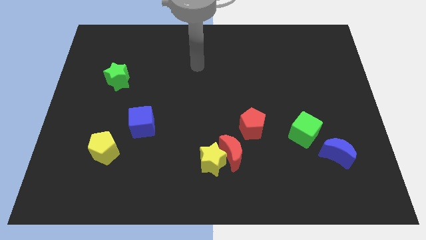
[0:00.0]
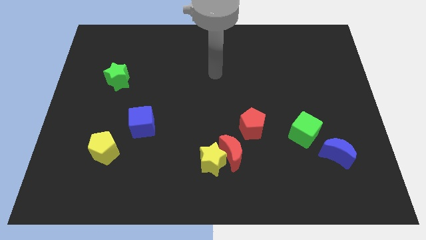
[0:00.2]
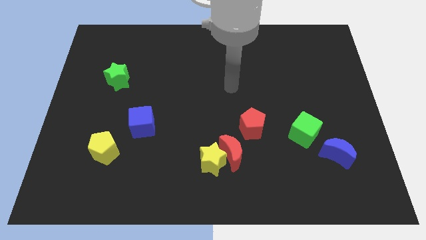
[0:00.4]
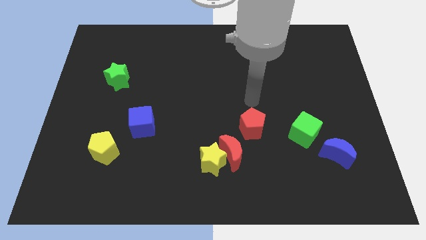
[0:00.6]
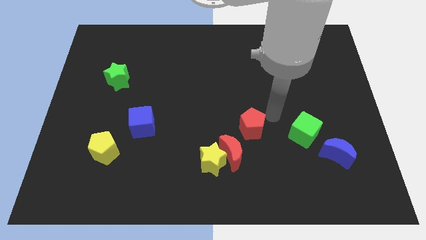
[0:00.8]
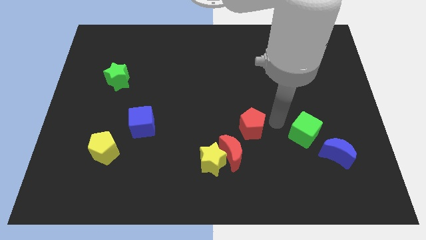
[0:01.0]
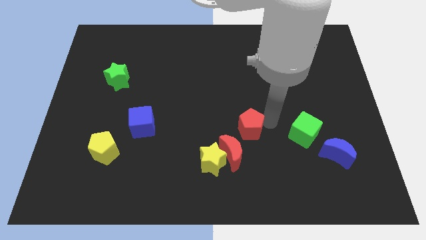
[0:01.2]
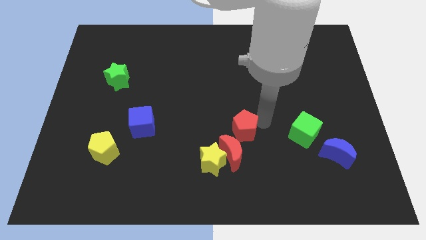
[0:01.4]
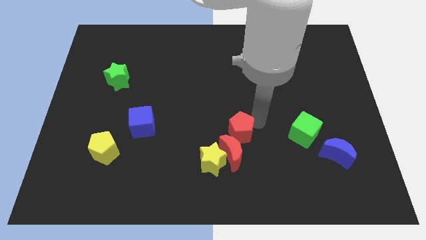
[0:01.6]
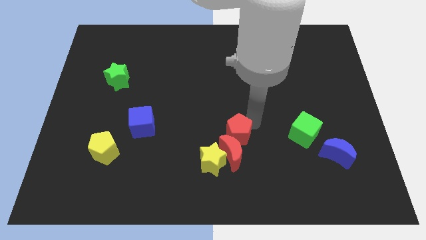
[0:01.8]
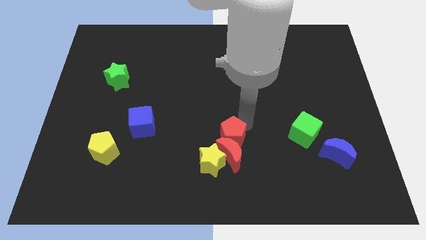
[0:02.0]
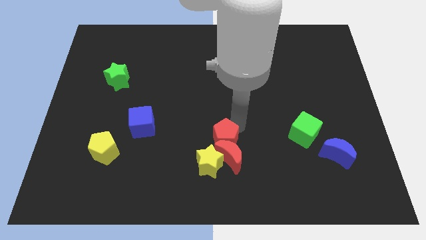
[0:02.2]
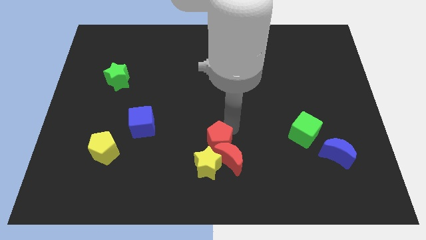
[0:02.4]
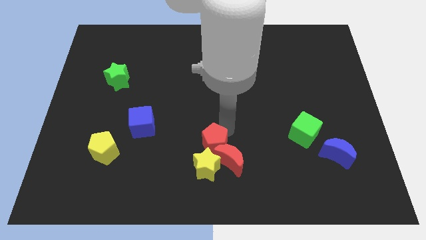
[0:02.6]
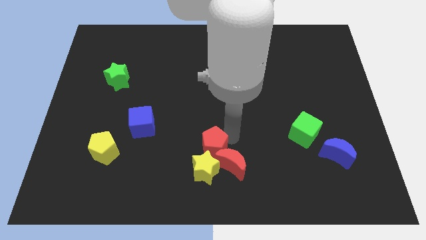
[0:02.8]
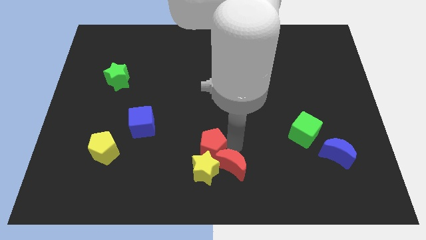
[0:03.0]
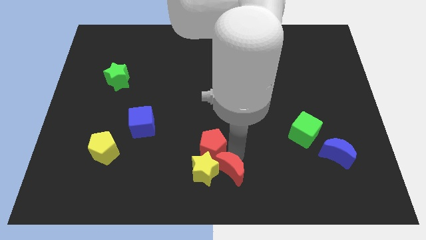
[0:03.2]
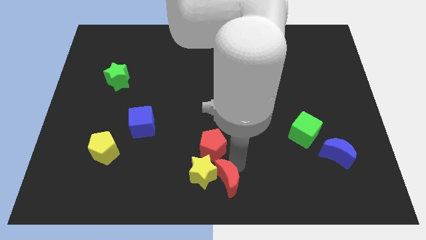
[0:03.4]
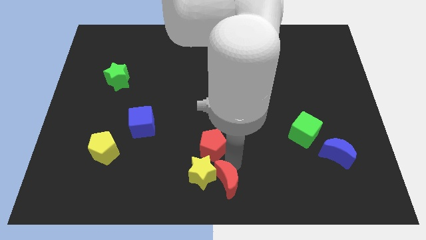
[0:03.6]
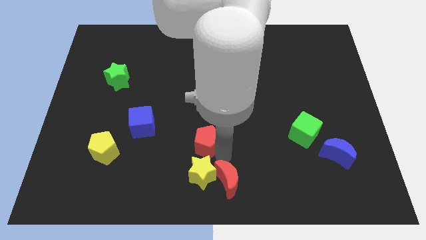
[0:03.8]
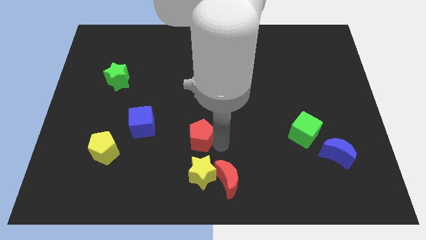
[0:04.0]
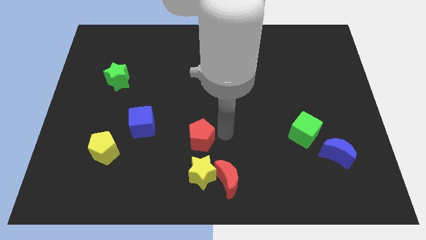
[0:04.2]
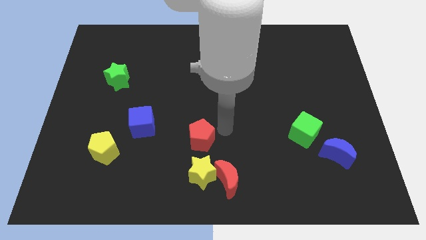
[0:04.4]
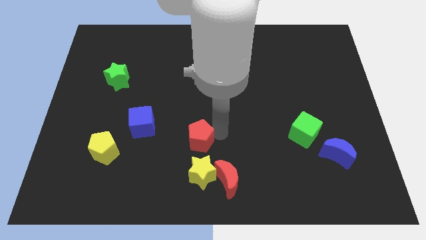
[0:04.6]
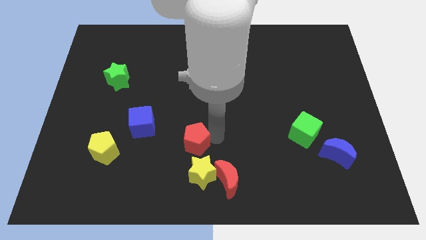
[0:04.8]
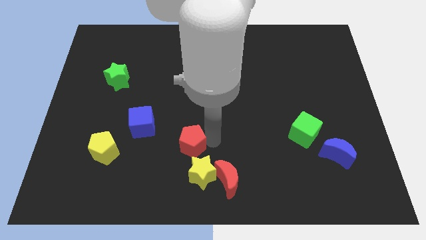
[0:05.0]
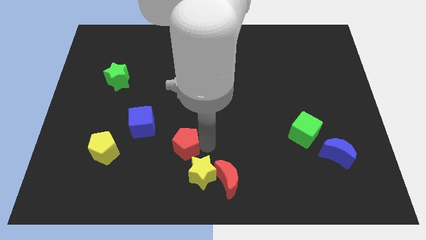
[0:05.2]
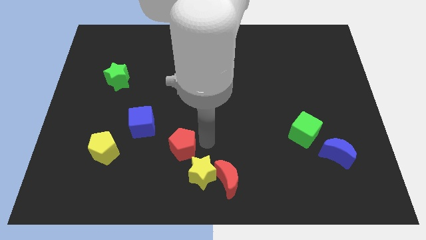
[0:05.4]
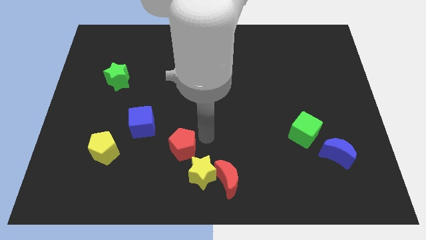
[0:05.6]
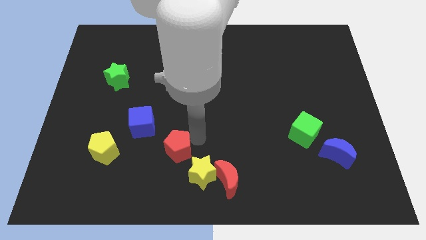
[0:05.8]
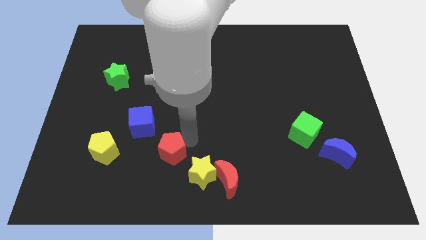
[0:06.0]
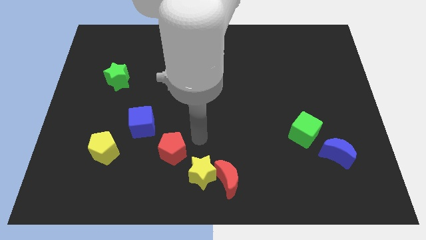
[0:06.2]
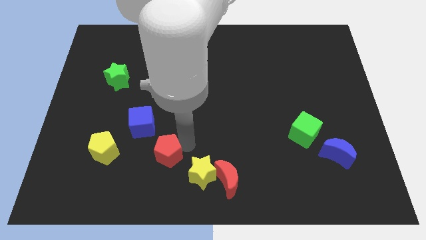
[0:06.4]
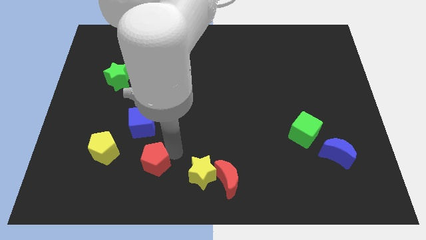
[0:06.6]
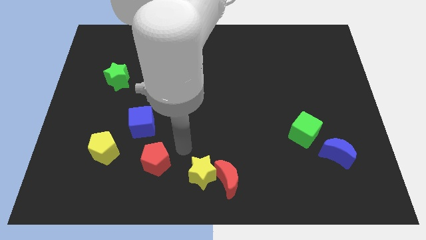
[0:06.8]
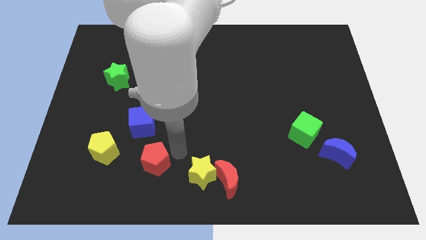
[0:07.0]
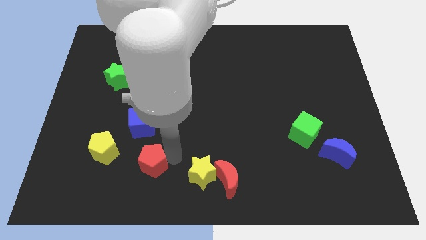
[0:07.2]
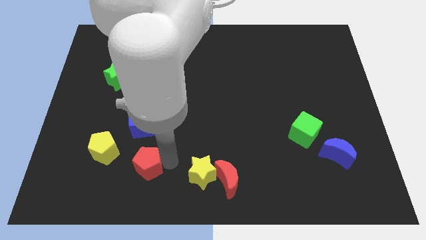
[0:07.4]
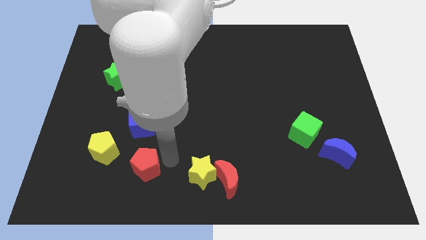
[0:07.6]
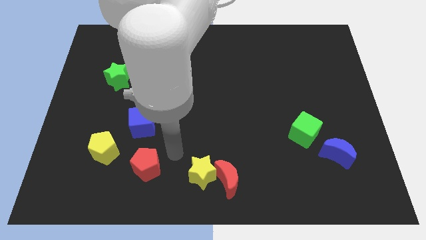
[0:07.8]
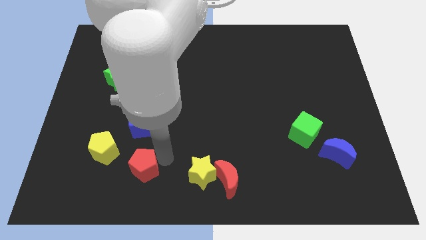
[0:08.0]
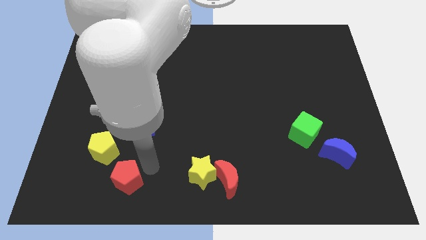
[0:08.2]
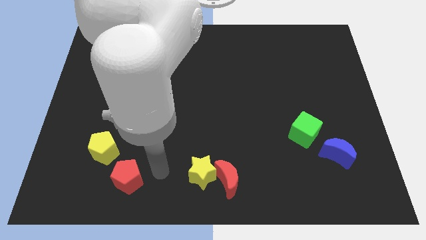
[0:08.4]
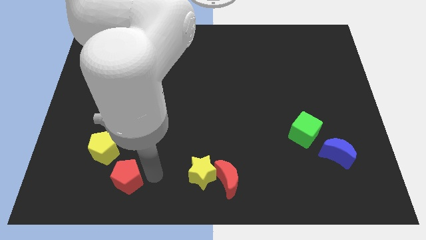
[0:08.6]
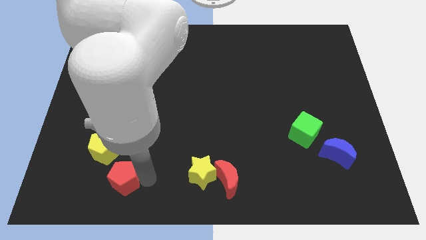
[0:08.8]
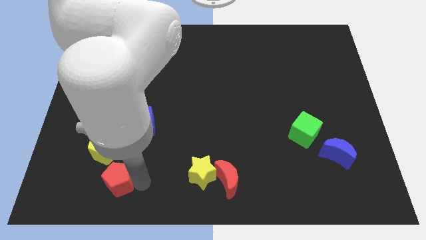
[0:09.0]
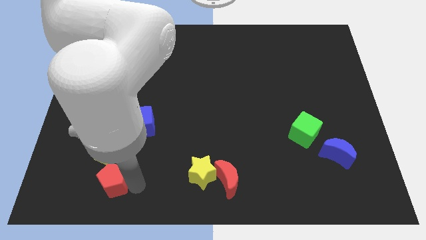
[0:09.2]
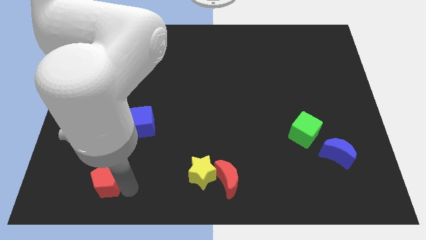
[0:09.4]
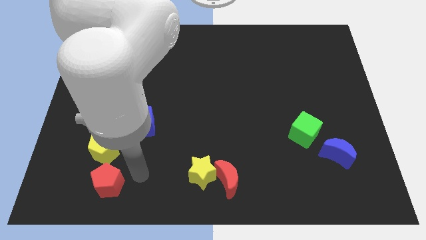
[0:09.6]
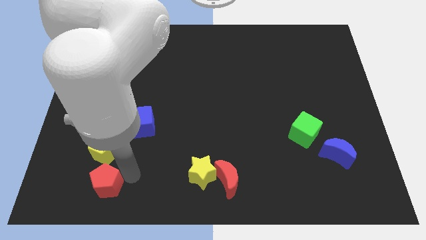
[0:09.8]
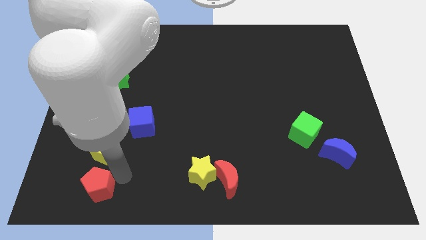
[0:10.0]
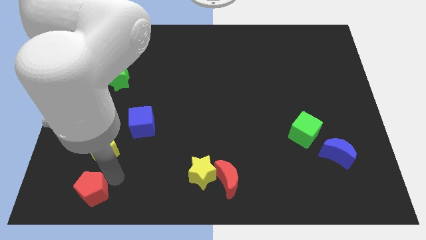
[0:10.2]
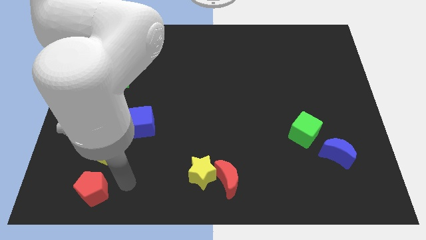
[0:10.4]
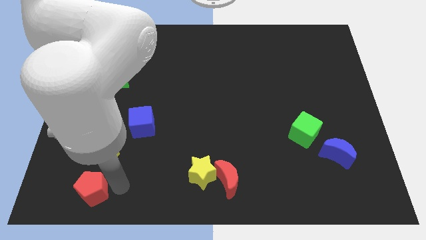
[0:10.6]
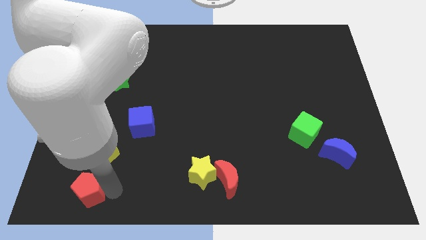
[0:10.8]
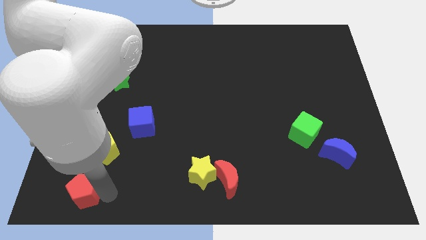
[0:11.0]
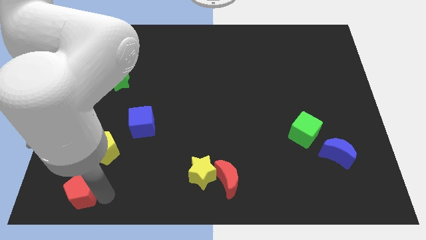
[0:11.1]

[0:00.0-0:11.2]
put the red pentagon to the bottom left of the board
